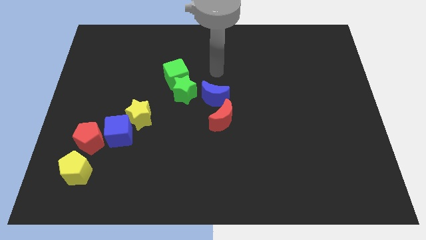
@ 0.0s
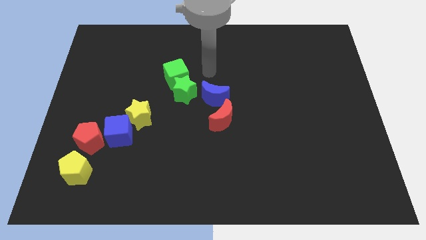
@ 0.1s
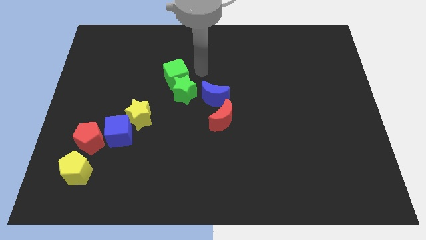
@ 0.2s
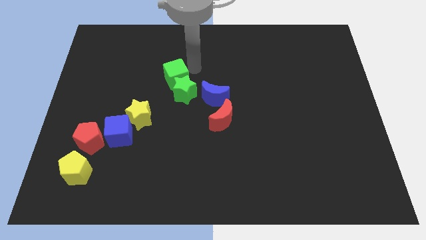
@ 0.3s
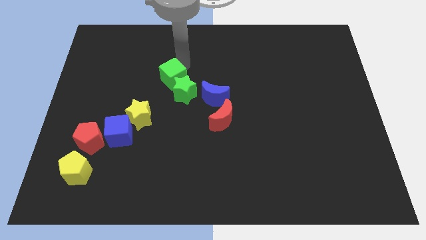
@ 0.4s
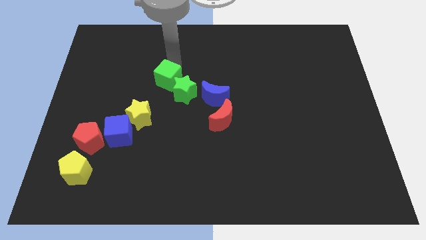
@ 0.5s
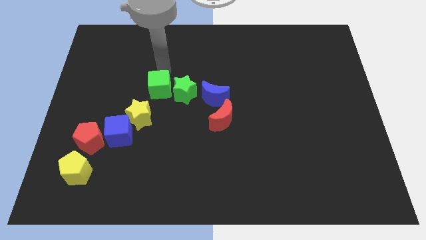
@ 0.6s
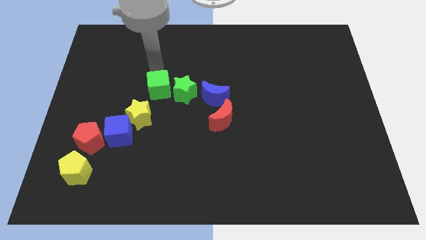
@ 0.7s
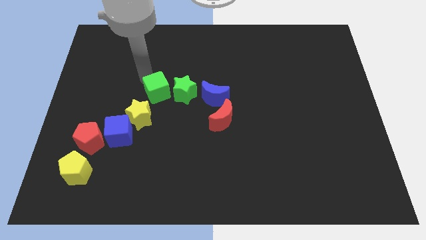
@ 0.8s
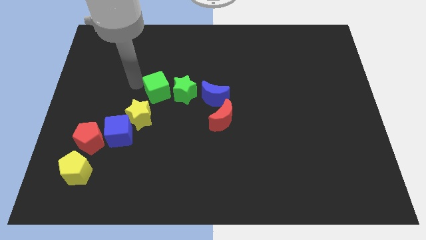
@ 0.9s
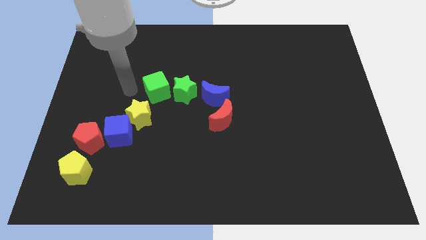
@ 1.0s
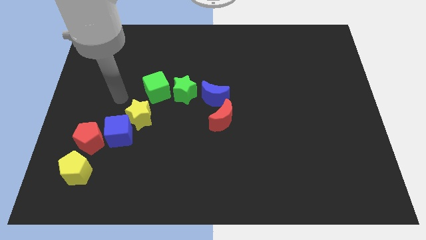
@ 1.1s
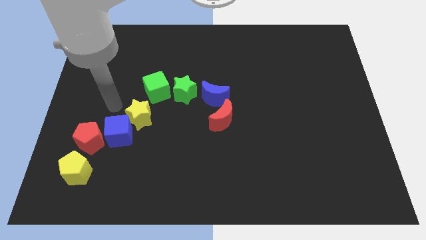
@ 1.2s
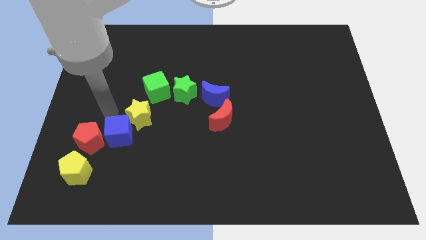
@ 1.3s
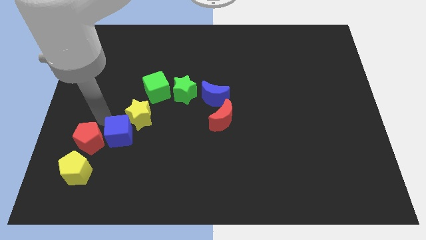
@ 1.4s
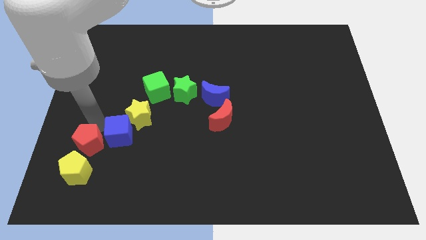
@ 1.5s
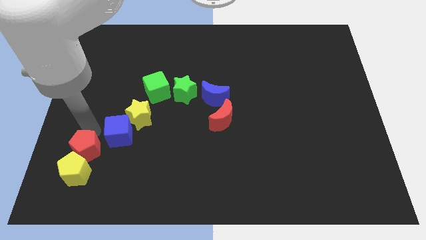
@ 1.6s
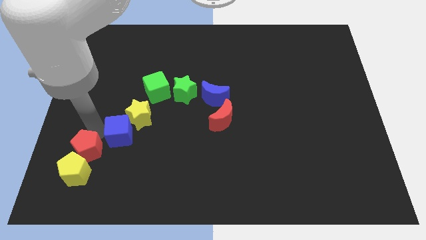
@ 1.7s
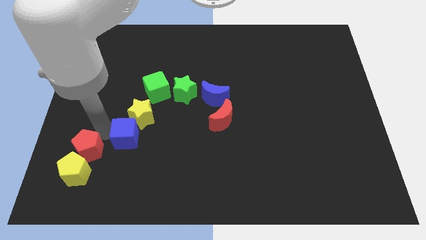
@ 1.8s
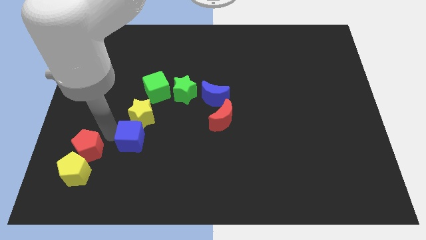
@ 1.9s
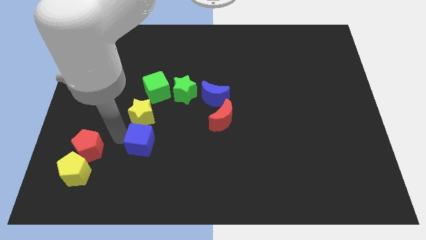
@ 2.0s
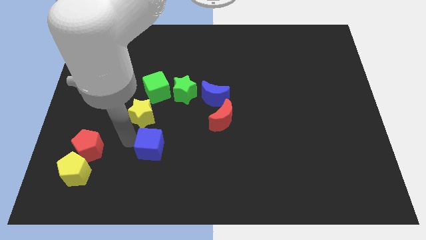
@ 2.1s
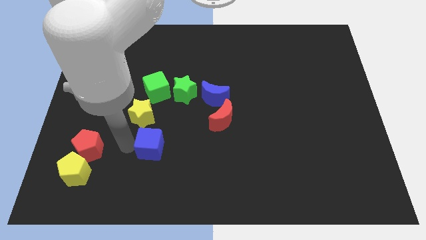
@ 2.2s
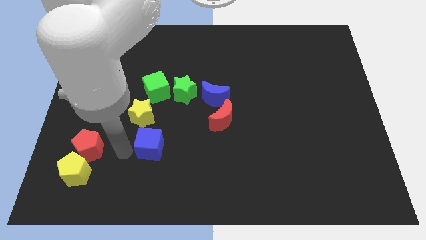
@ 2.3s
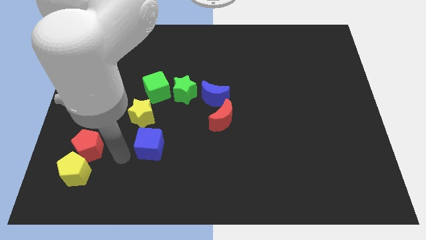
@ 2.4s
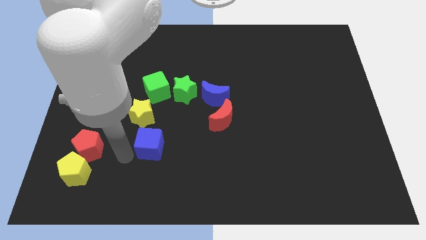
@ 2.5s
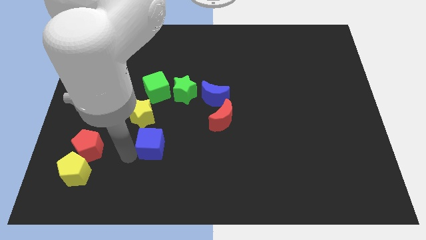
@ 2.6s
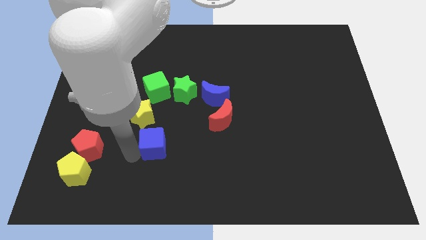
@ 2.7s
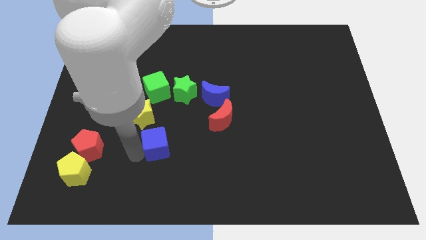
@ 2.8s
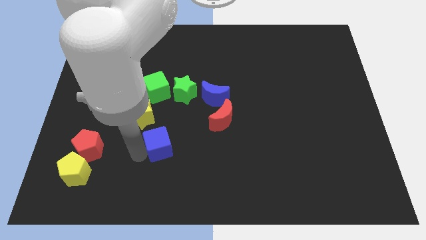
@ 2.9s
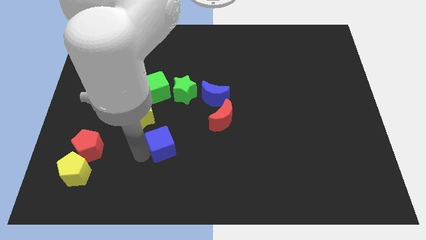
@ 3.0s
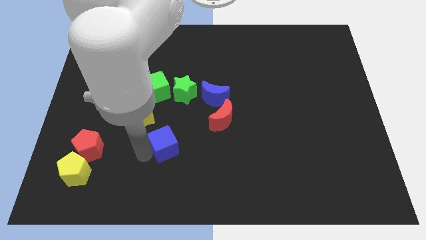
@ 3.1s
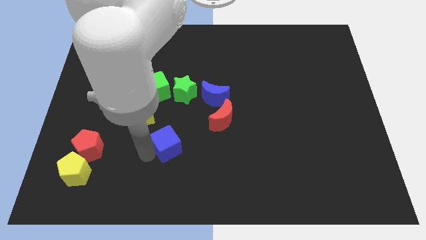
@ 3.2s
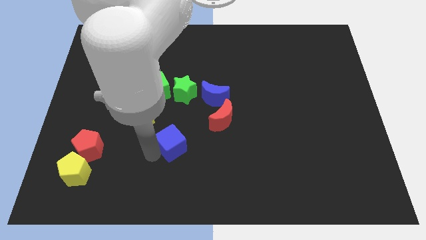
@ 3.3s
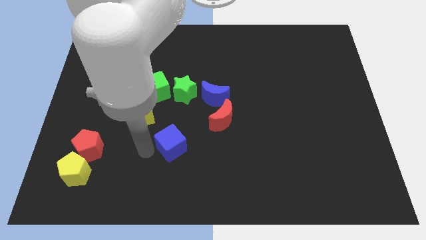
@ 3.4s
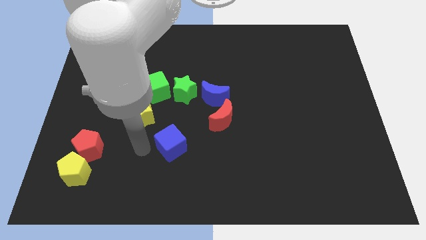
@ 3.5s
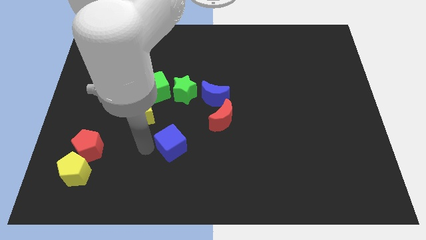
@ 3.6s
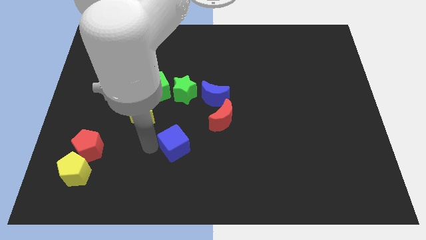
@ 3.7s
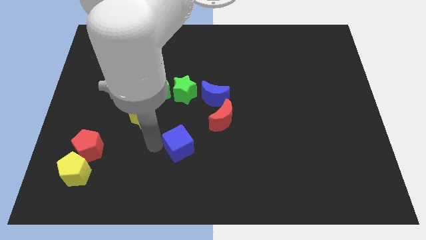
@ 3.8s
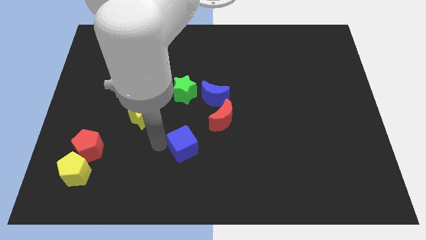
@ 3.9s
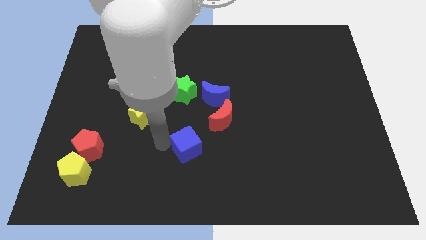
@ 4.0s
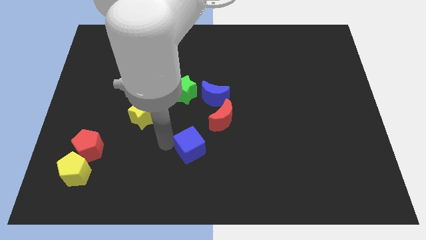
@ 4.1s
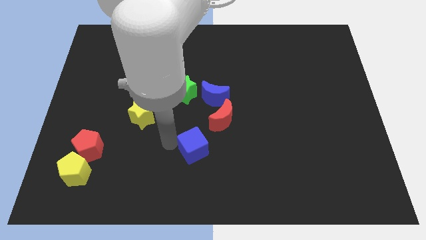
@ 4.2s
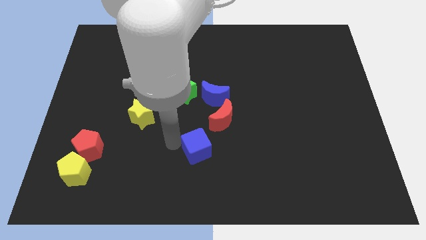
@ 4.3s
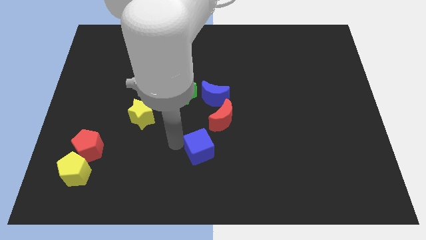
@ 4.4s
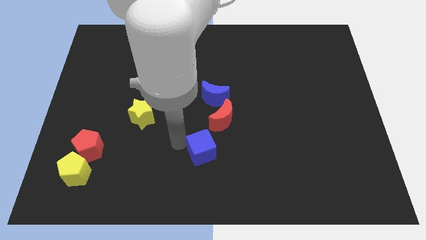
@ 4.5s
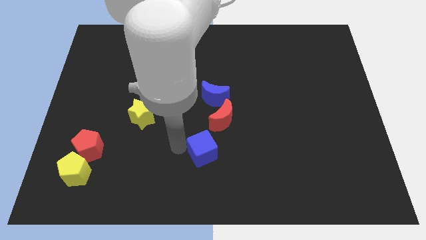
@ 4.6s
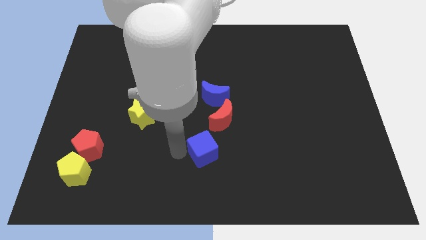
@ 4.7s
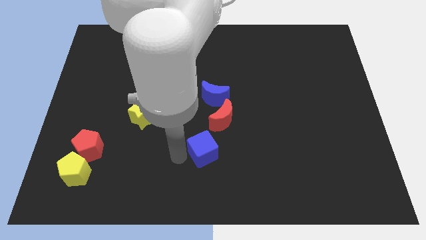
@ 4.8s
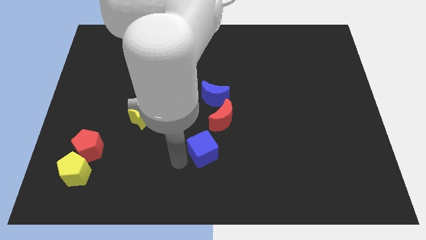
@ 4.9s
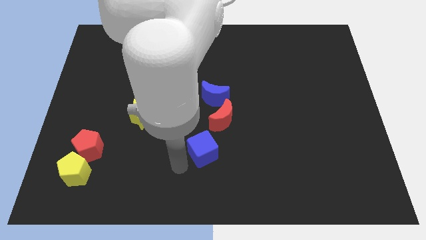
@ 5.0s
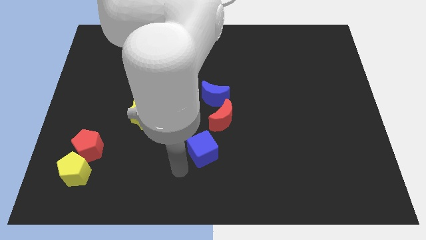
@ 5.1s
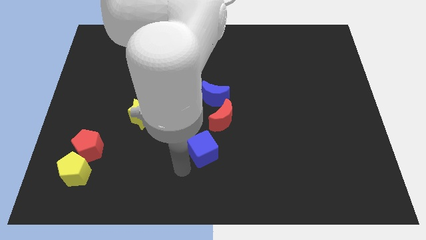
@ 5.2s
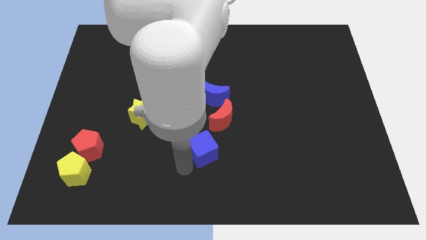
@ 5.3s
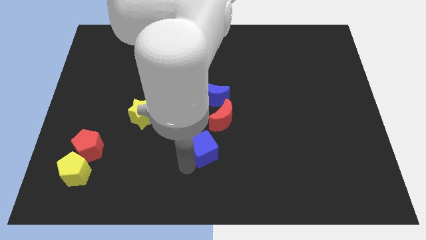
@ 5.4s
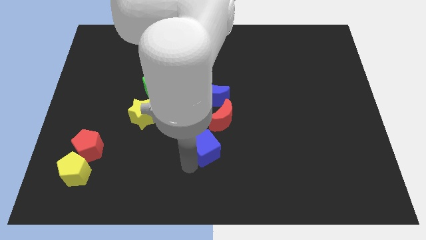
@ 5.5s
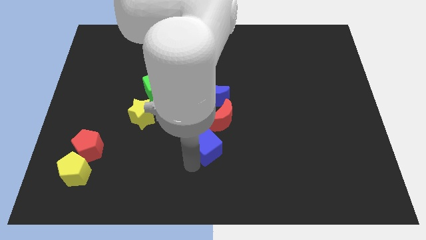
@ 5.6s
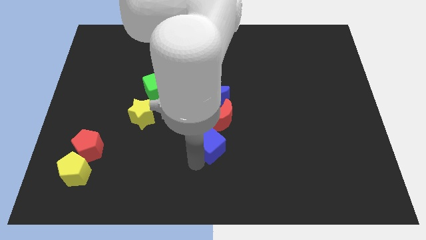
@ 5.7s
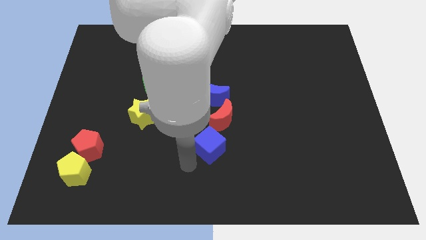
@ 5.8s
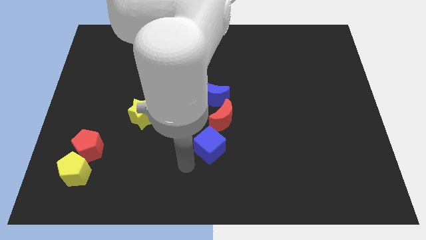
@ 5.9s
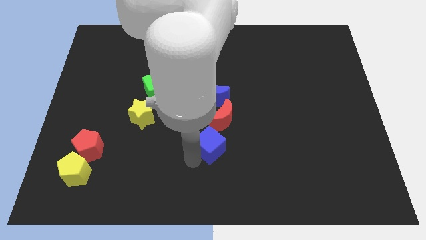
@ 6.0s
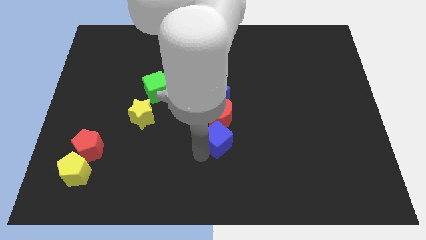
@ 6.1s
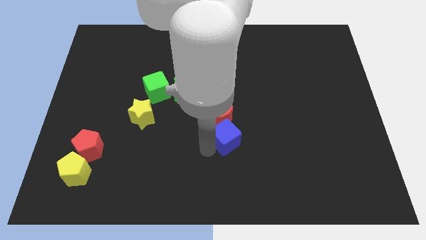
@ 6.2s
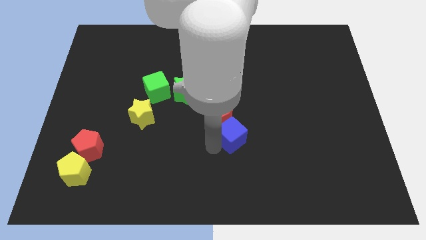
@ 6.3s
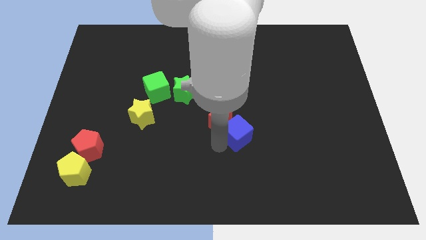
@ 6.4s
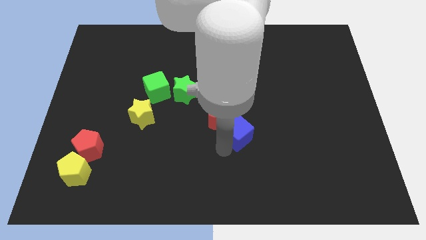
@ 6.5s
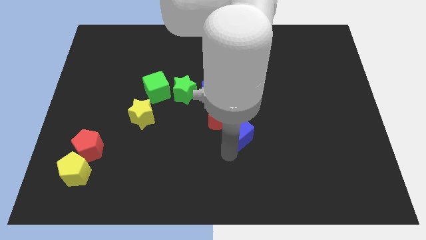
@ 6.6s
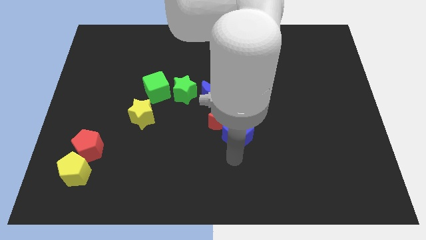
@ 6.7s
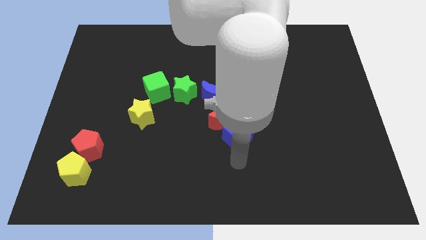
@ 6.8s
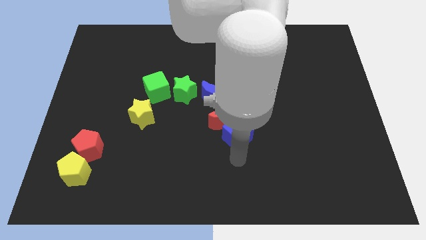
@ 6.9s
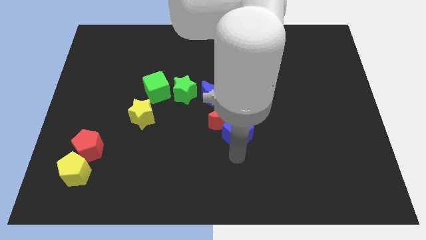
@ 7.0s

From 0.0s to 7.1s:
move the blue cube diagonally down and to the right of the blue moon

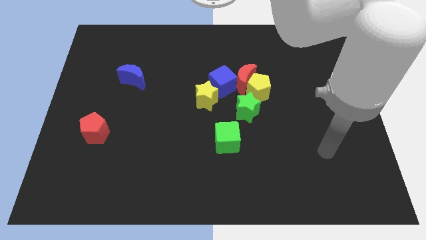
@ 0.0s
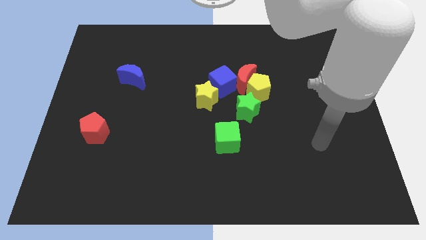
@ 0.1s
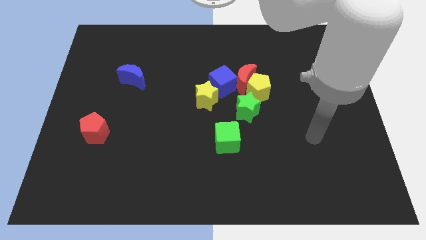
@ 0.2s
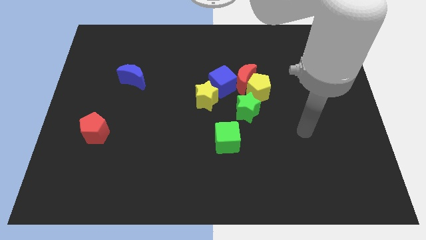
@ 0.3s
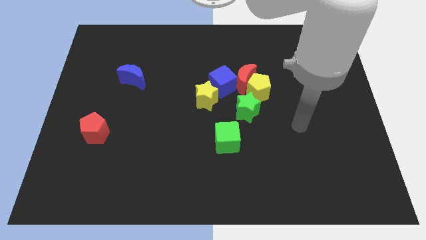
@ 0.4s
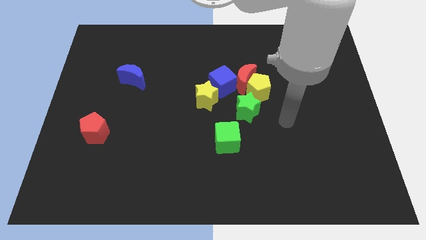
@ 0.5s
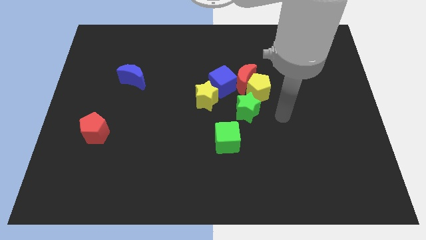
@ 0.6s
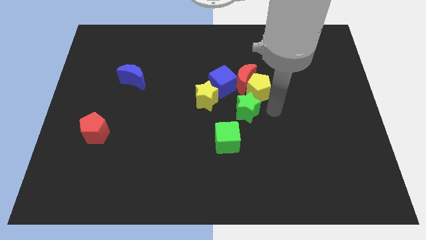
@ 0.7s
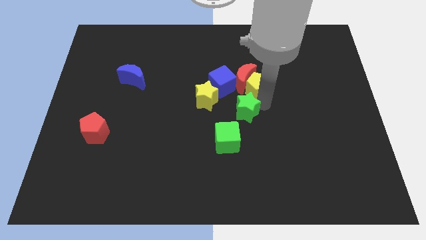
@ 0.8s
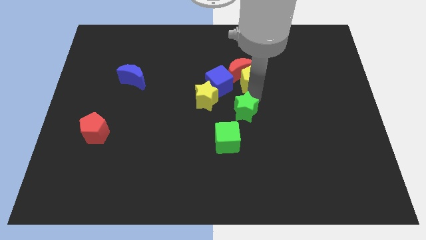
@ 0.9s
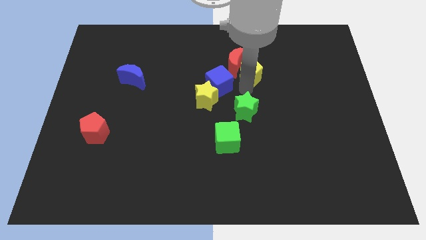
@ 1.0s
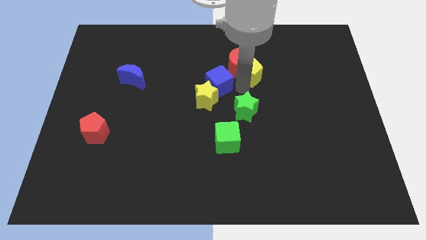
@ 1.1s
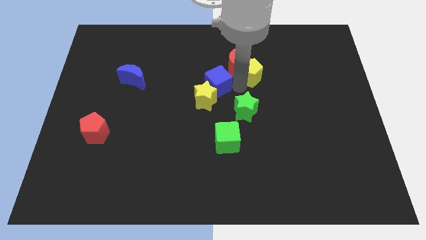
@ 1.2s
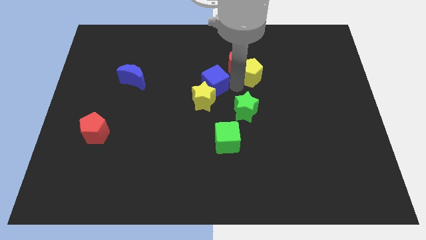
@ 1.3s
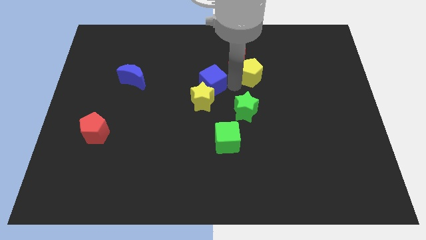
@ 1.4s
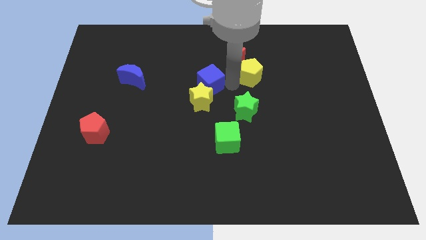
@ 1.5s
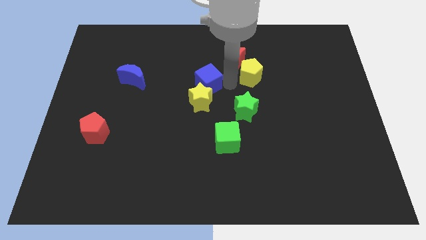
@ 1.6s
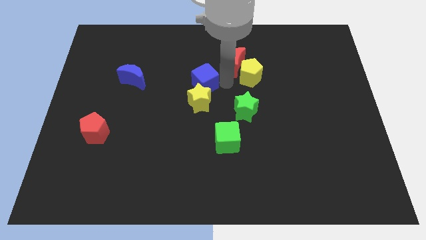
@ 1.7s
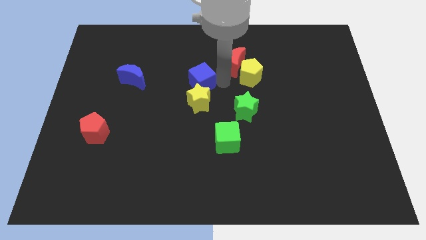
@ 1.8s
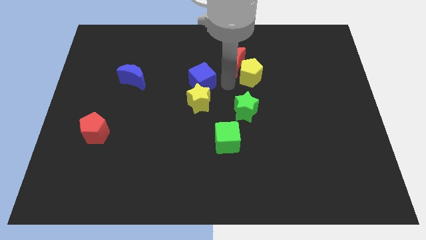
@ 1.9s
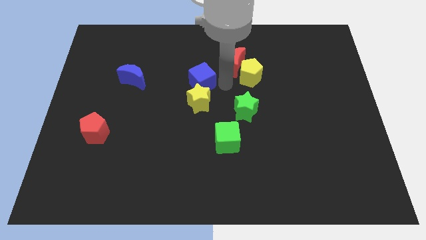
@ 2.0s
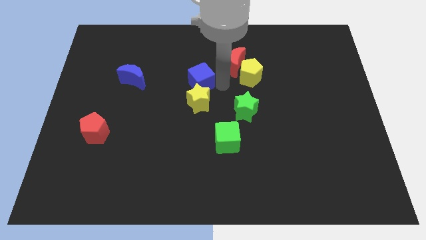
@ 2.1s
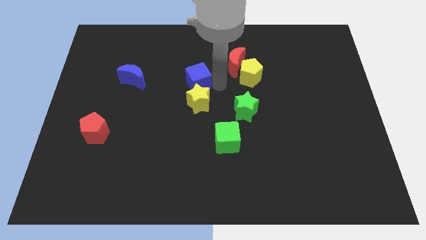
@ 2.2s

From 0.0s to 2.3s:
push the blue cube just right of the blue moon
